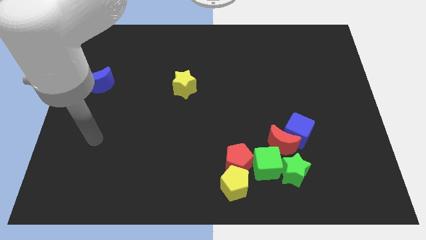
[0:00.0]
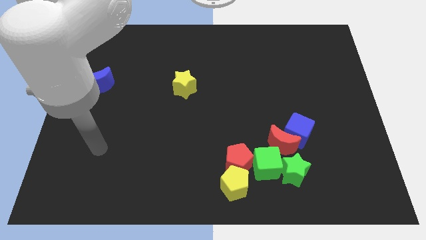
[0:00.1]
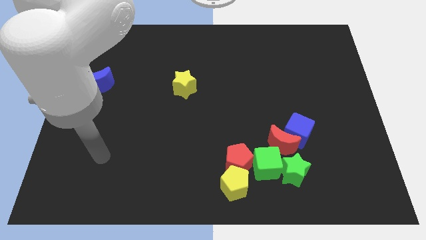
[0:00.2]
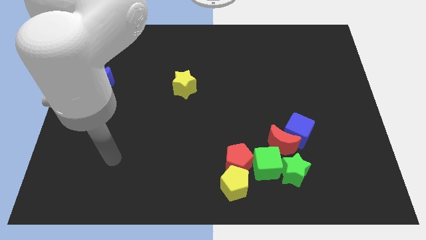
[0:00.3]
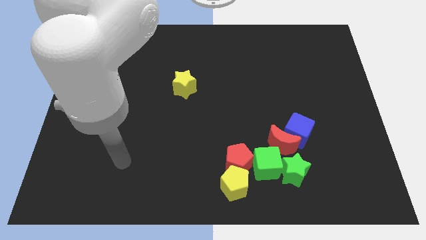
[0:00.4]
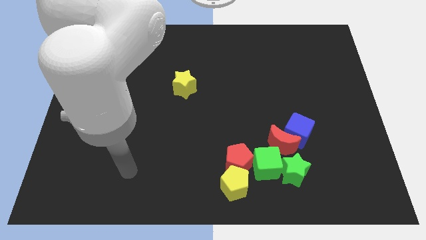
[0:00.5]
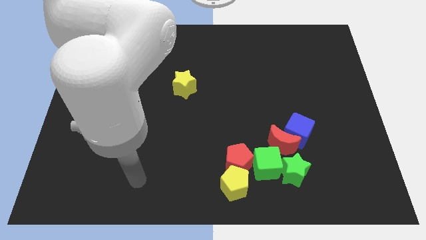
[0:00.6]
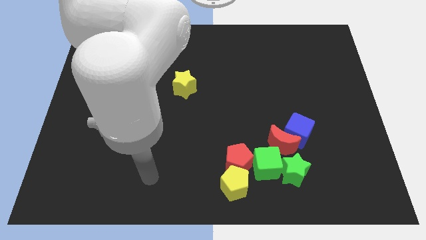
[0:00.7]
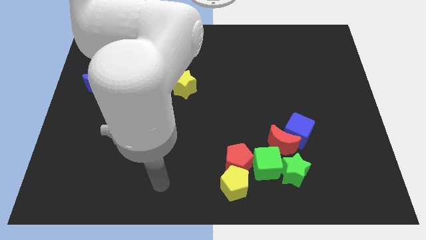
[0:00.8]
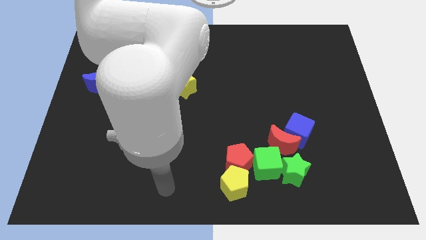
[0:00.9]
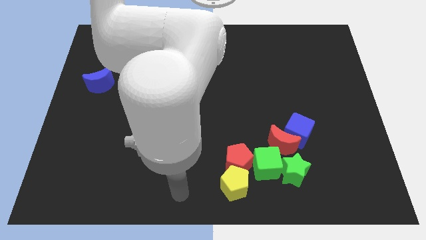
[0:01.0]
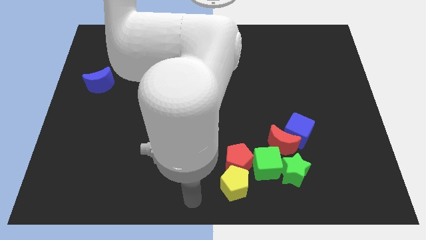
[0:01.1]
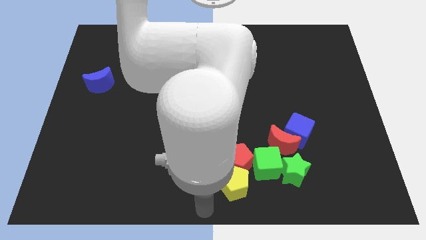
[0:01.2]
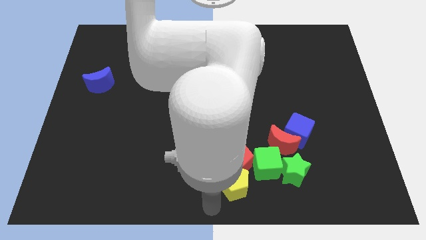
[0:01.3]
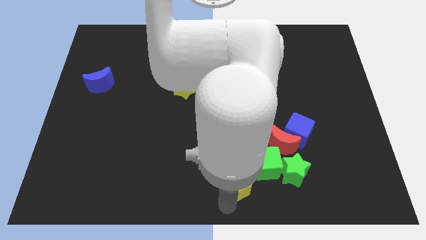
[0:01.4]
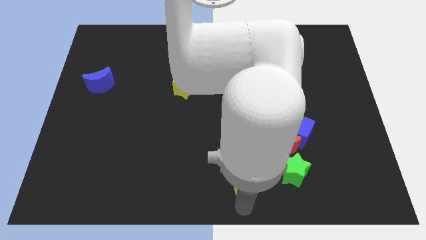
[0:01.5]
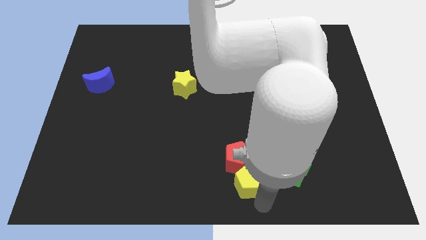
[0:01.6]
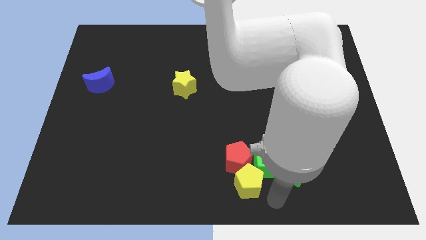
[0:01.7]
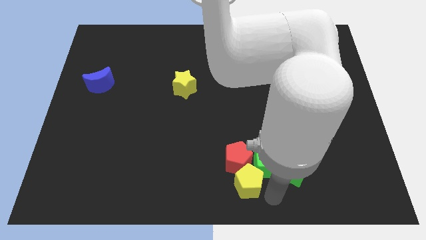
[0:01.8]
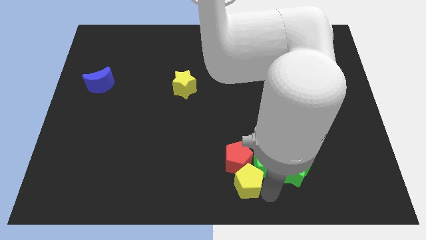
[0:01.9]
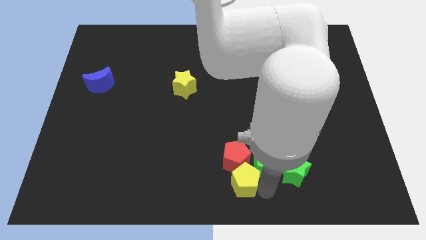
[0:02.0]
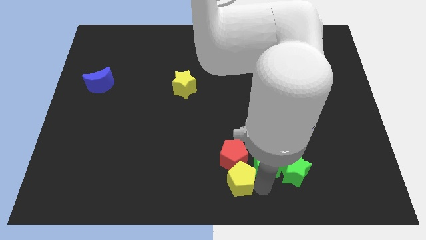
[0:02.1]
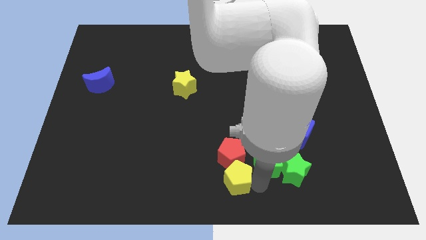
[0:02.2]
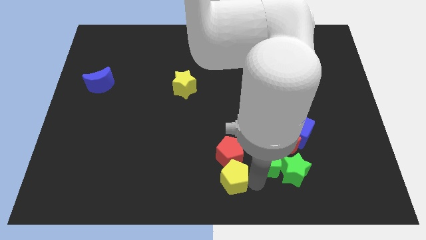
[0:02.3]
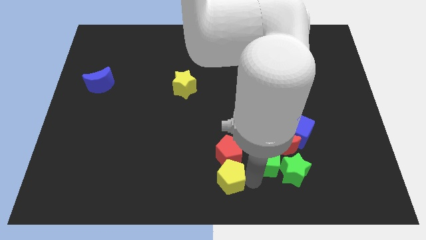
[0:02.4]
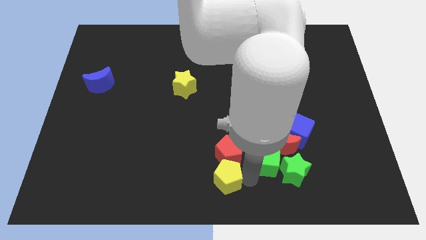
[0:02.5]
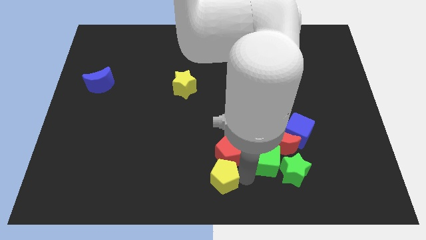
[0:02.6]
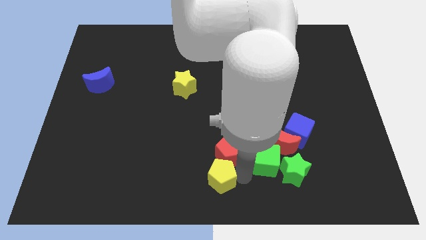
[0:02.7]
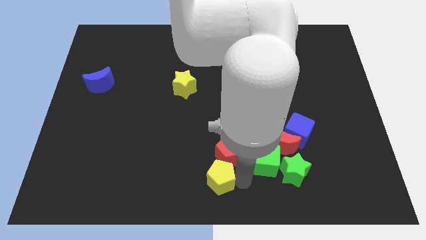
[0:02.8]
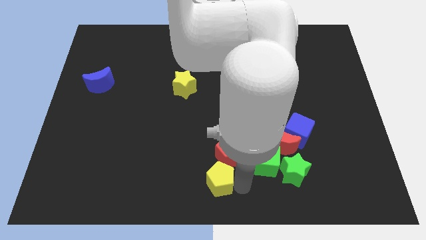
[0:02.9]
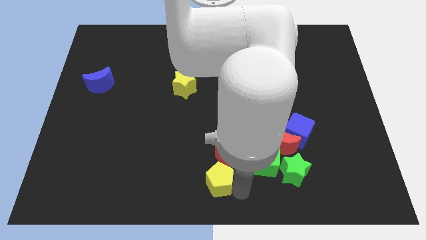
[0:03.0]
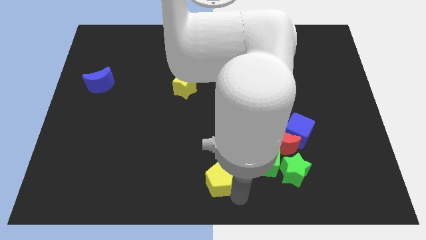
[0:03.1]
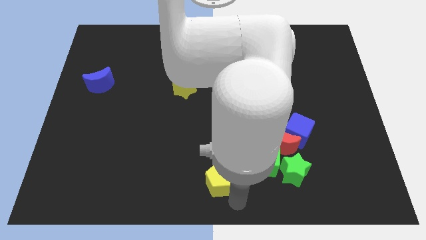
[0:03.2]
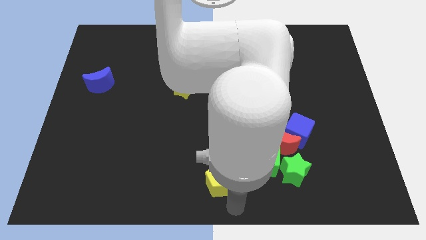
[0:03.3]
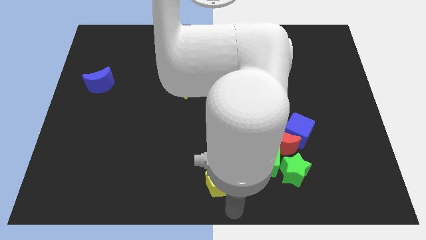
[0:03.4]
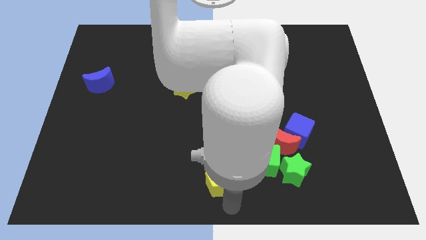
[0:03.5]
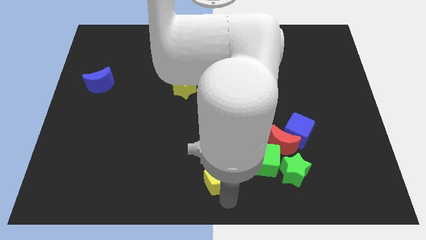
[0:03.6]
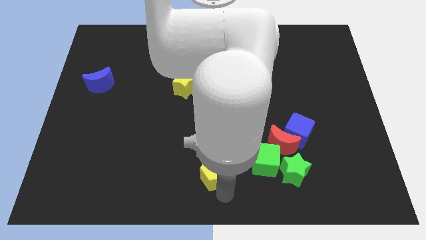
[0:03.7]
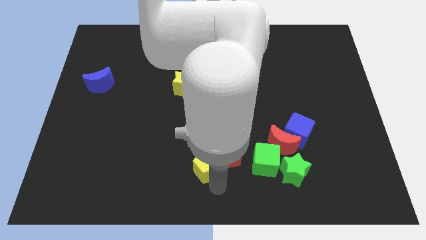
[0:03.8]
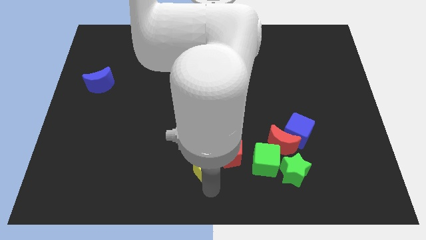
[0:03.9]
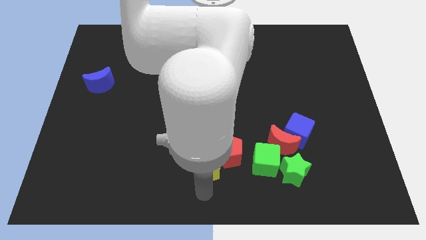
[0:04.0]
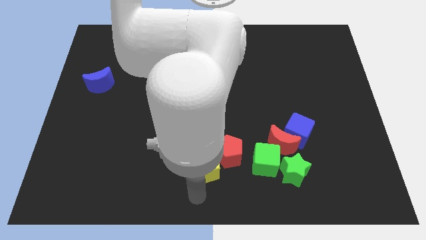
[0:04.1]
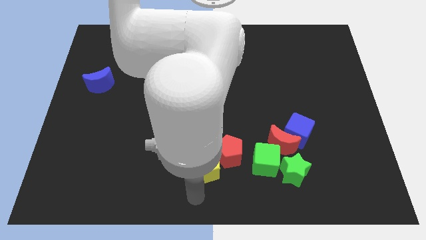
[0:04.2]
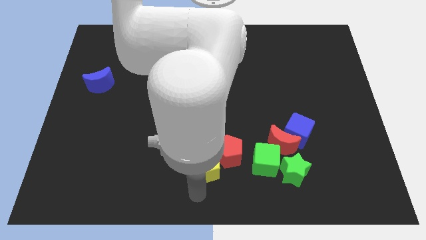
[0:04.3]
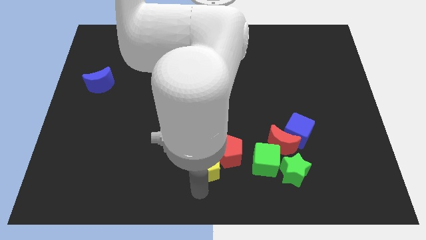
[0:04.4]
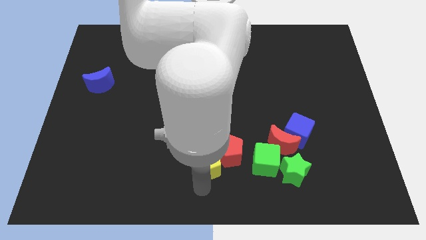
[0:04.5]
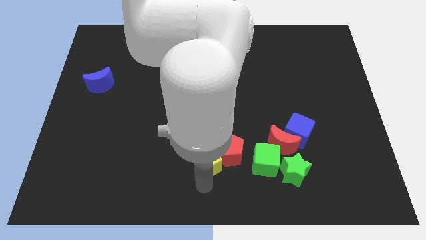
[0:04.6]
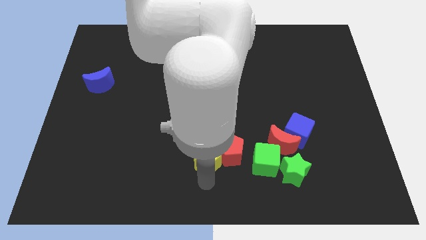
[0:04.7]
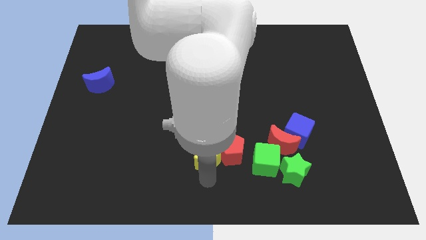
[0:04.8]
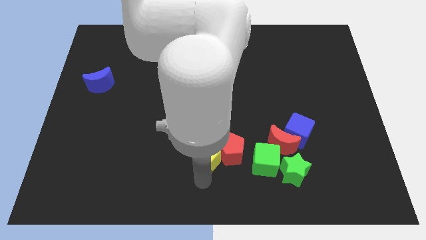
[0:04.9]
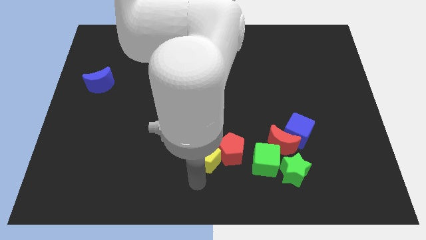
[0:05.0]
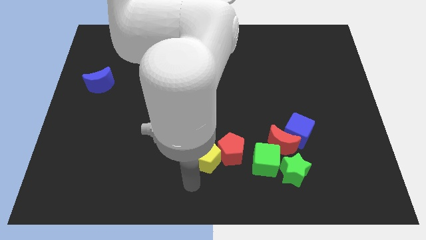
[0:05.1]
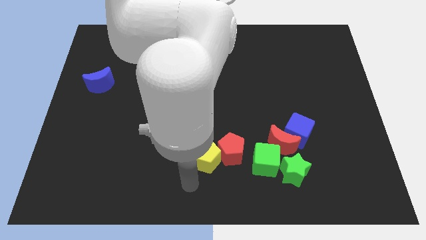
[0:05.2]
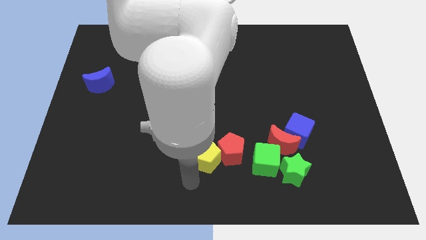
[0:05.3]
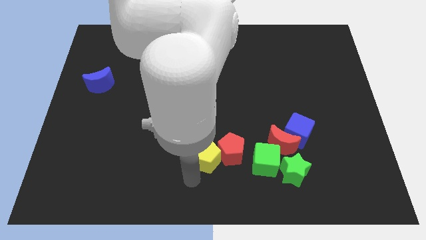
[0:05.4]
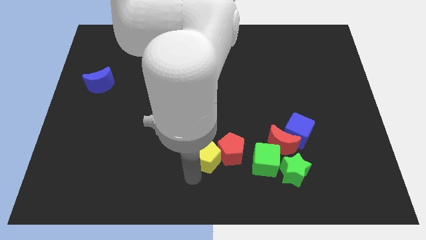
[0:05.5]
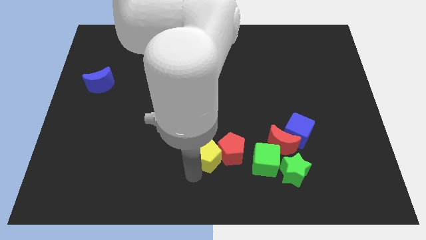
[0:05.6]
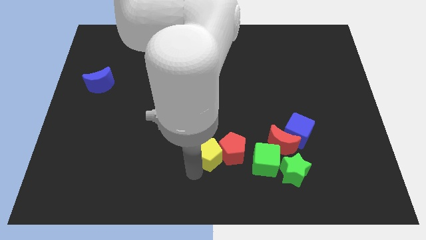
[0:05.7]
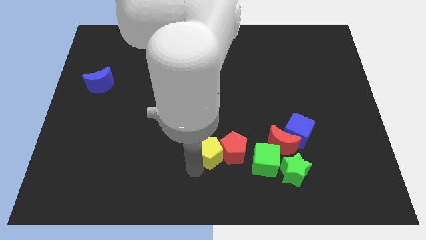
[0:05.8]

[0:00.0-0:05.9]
move the yellow pentagon to the left side of the red moon

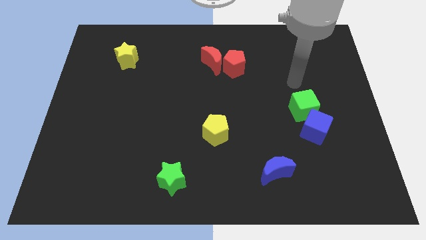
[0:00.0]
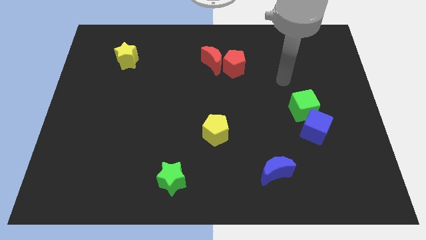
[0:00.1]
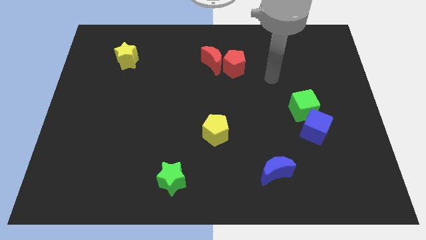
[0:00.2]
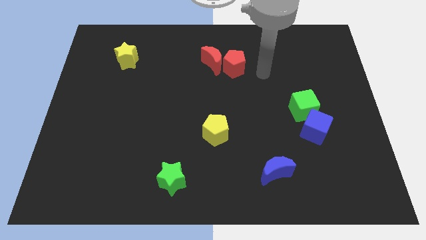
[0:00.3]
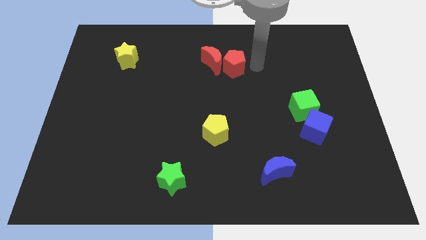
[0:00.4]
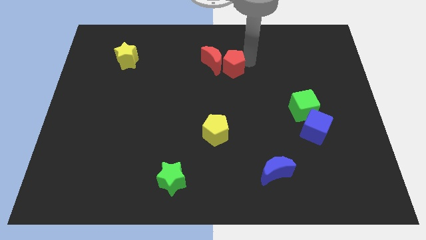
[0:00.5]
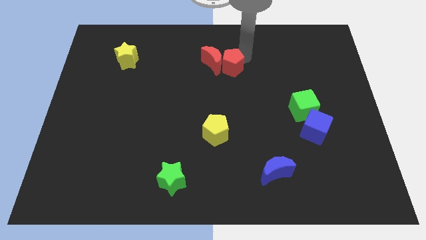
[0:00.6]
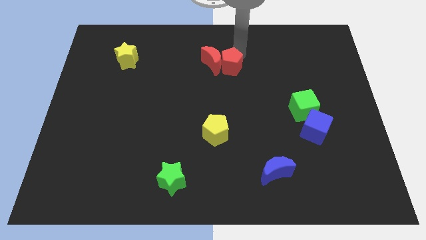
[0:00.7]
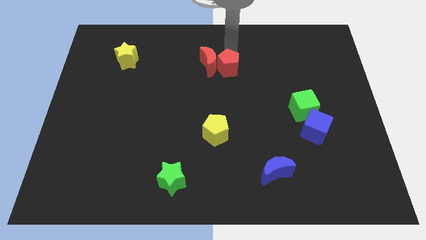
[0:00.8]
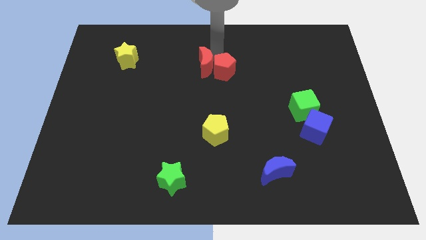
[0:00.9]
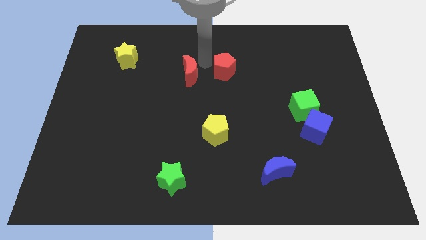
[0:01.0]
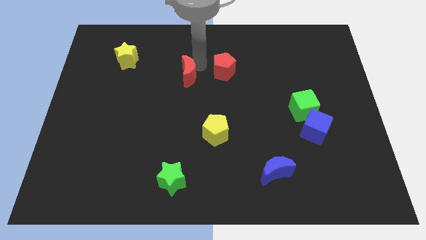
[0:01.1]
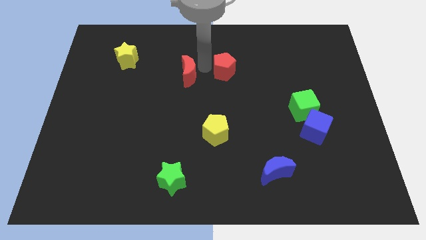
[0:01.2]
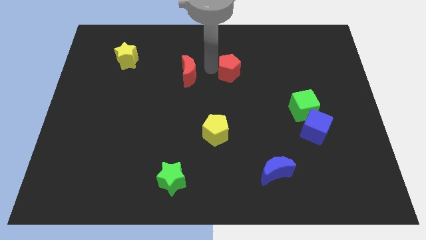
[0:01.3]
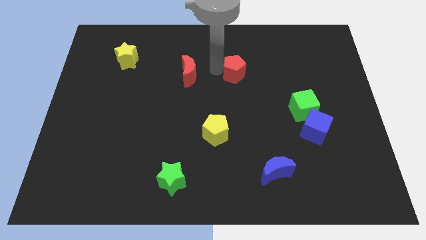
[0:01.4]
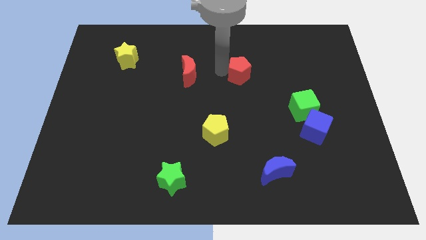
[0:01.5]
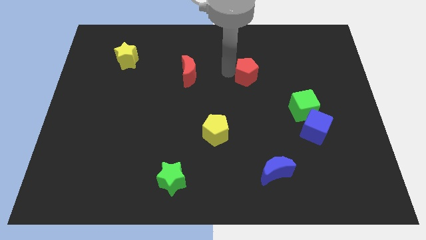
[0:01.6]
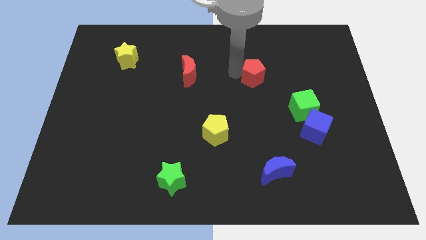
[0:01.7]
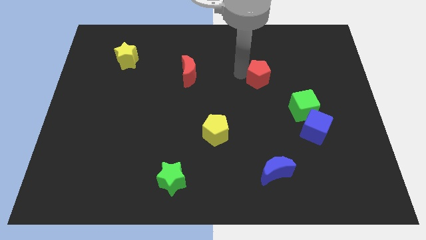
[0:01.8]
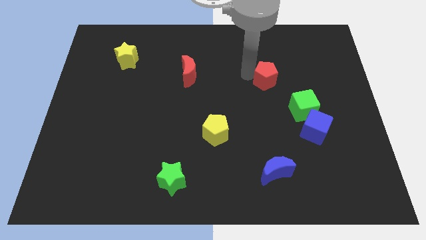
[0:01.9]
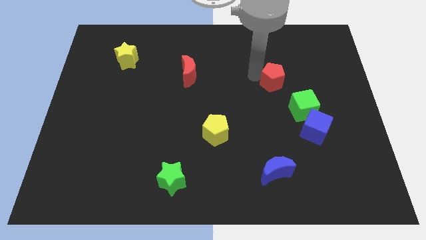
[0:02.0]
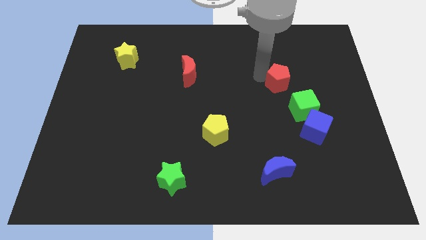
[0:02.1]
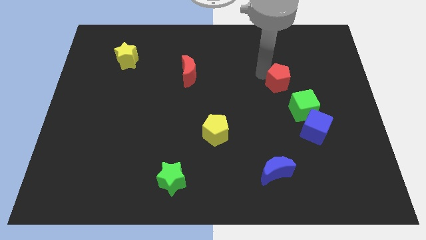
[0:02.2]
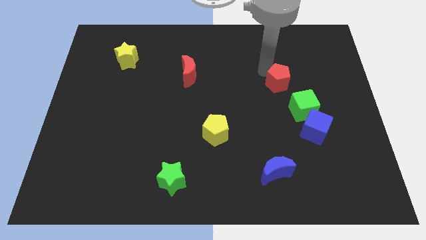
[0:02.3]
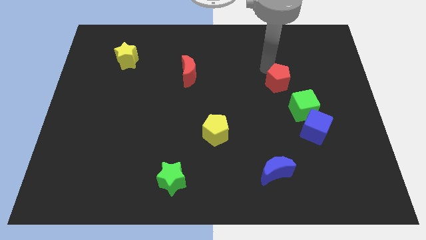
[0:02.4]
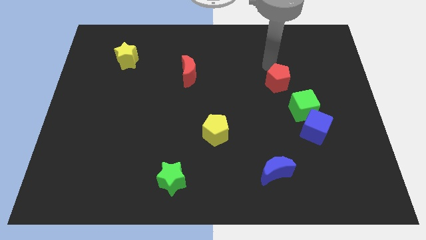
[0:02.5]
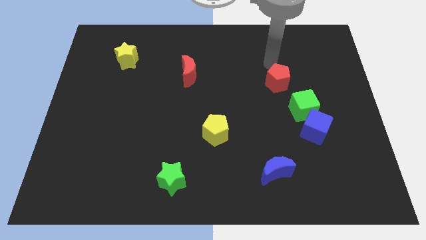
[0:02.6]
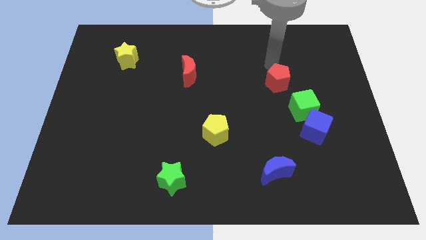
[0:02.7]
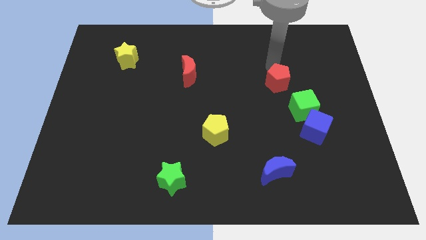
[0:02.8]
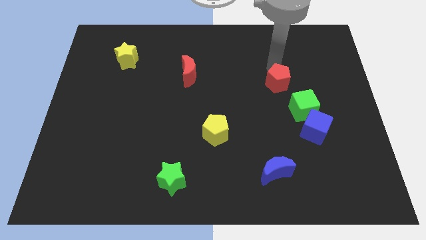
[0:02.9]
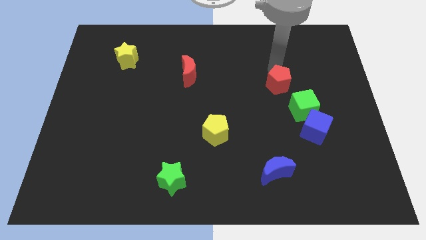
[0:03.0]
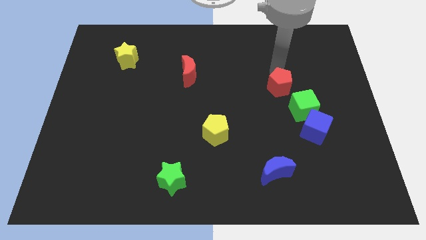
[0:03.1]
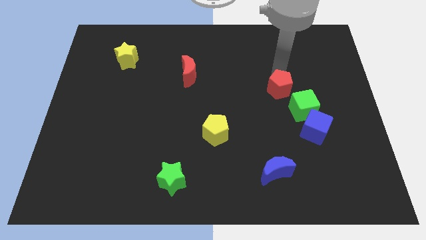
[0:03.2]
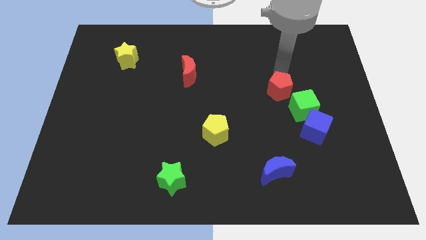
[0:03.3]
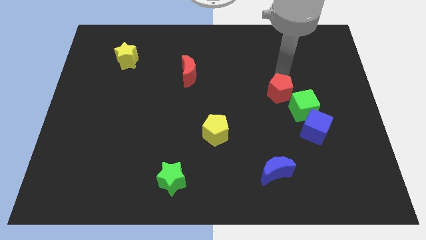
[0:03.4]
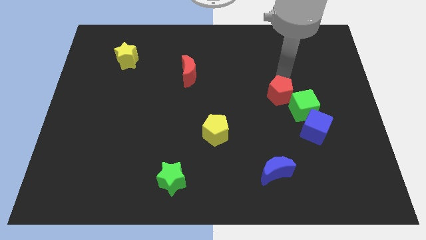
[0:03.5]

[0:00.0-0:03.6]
put the red pentagon diagonally up and to the left of the blue cube
